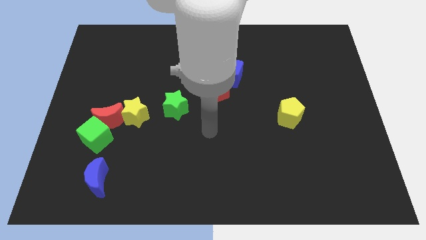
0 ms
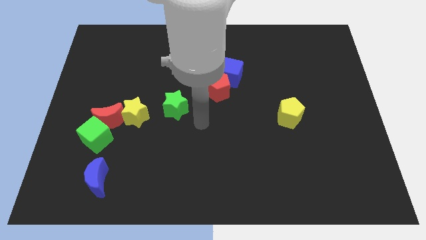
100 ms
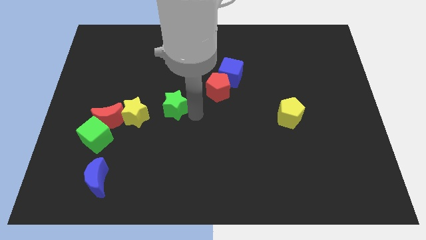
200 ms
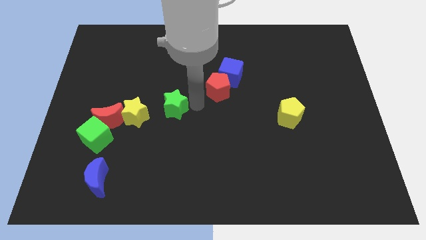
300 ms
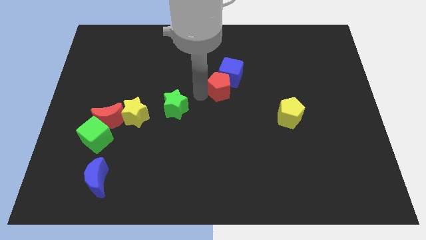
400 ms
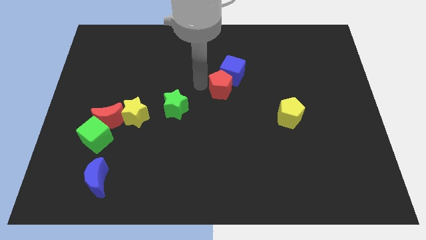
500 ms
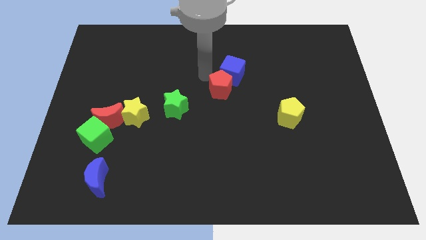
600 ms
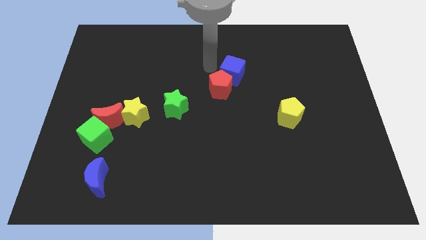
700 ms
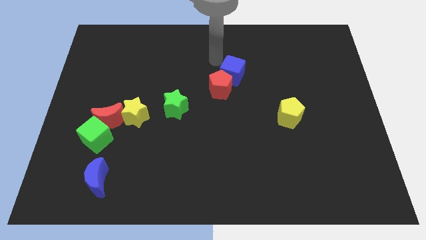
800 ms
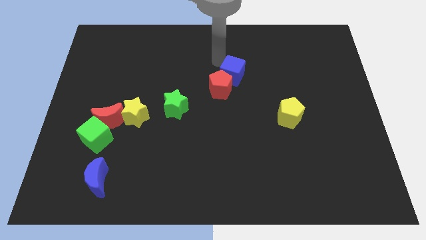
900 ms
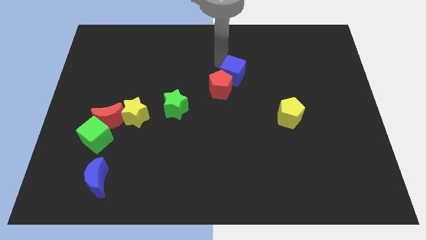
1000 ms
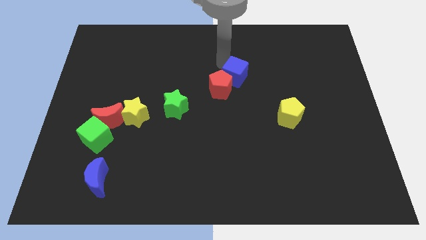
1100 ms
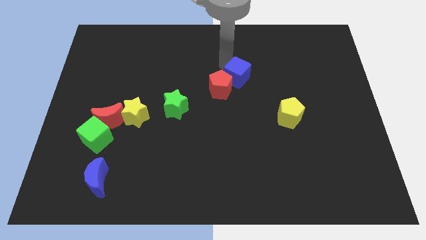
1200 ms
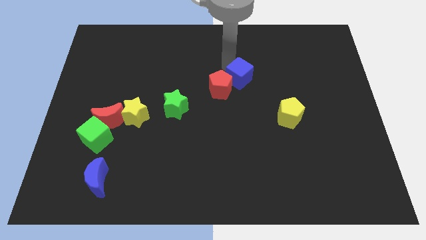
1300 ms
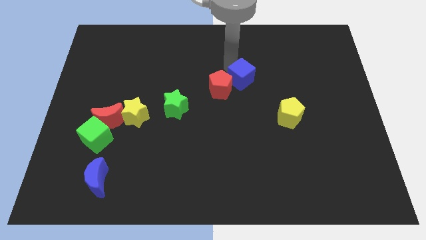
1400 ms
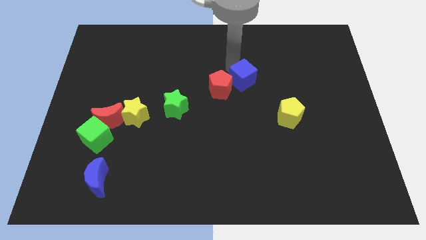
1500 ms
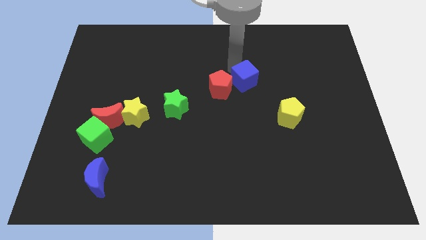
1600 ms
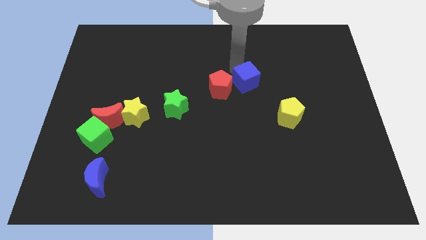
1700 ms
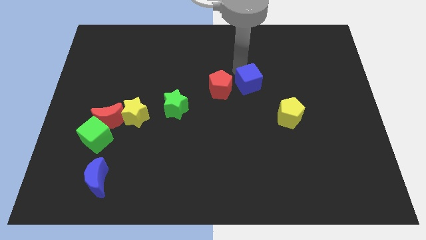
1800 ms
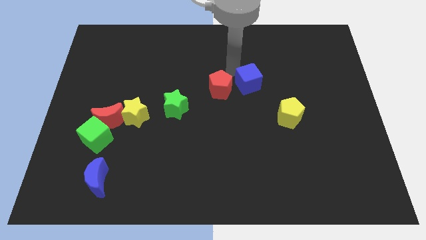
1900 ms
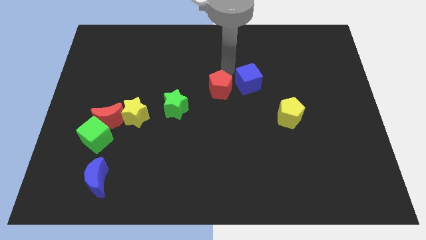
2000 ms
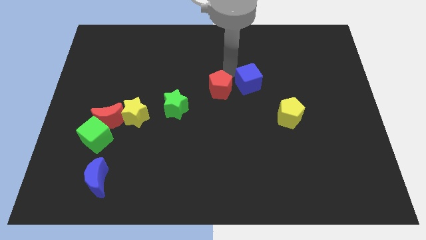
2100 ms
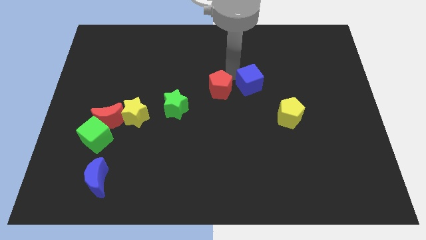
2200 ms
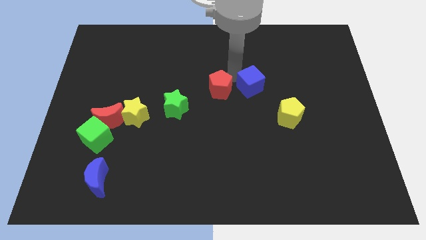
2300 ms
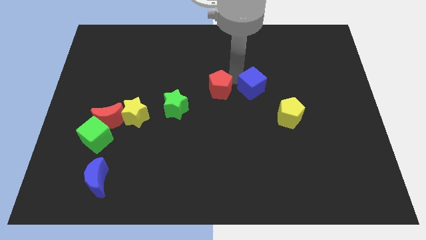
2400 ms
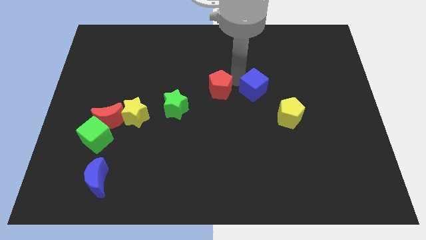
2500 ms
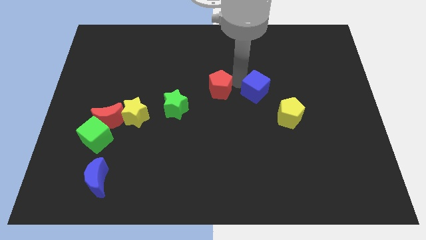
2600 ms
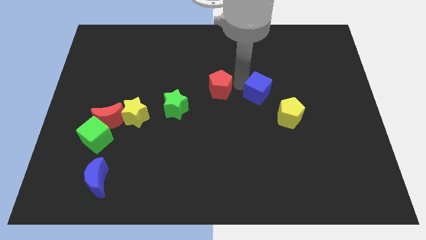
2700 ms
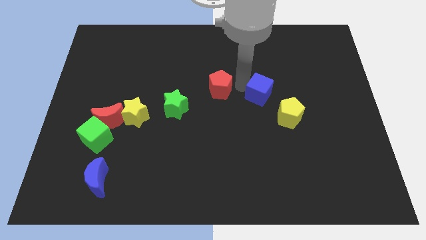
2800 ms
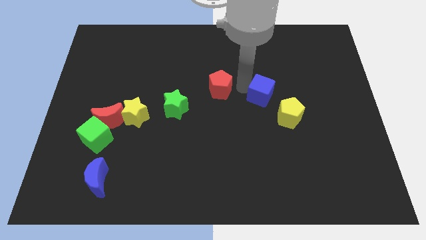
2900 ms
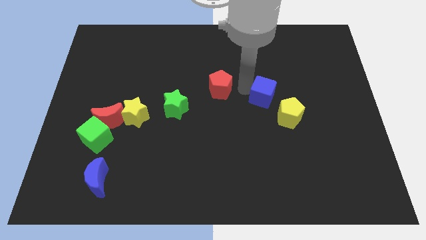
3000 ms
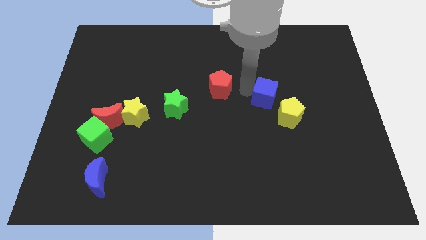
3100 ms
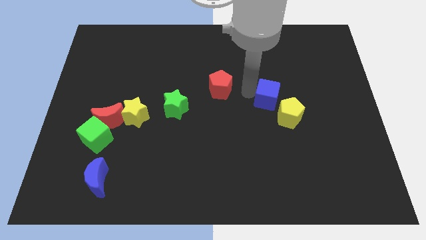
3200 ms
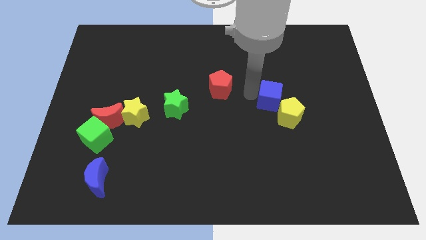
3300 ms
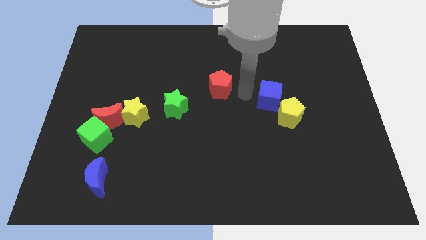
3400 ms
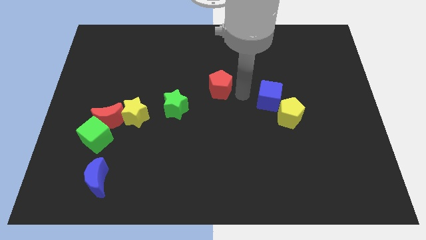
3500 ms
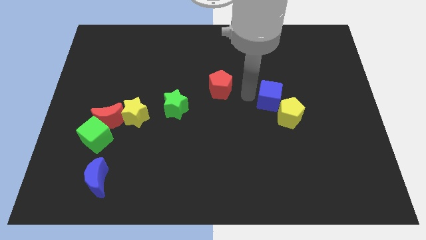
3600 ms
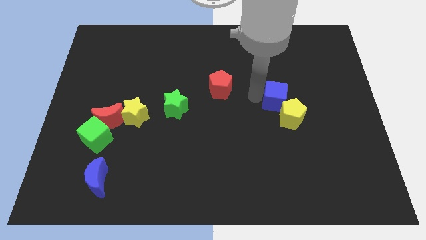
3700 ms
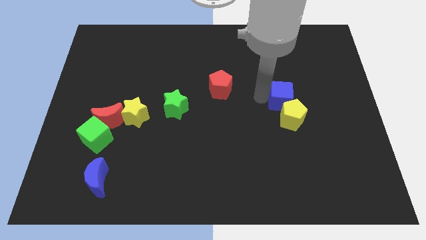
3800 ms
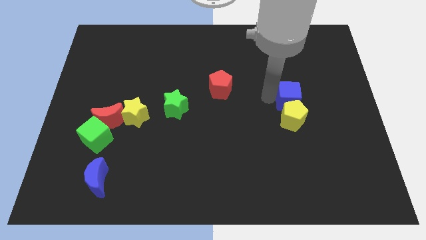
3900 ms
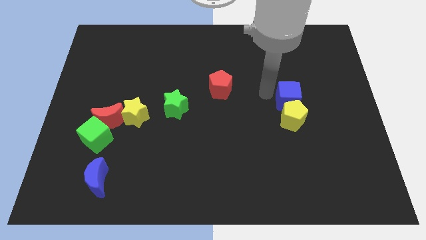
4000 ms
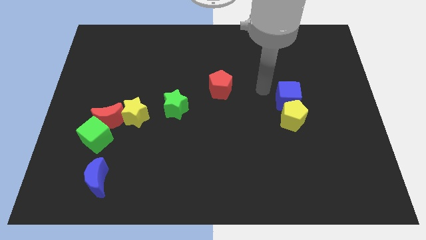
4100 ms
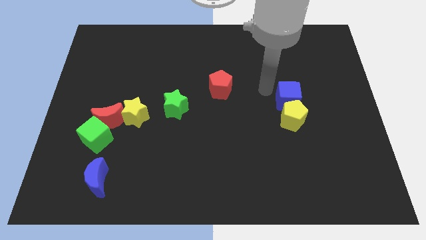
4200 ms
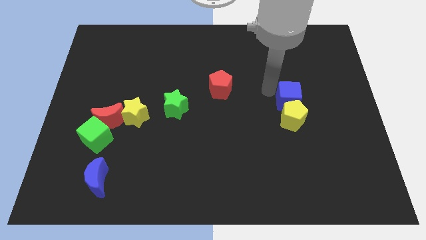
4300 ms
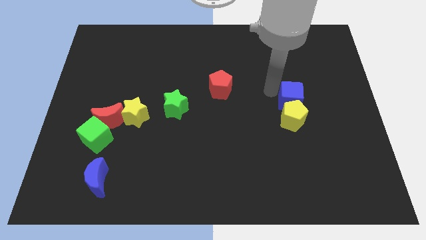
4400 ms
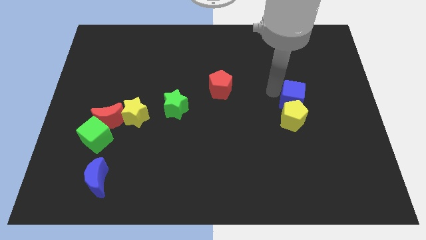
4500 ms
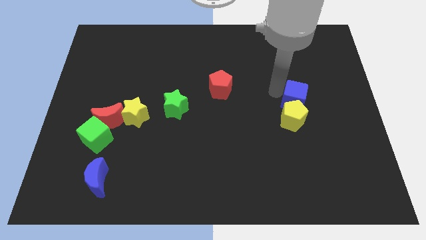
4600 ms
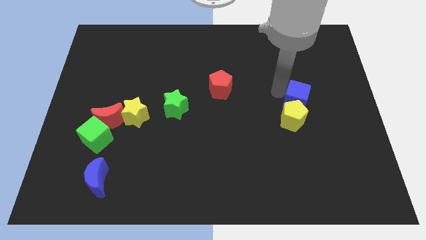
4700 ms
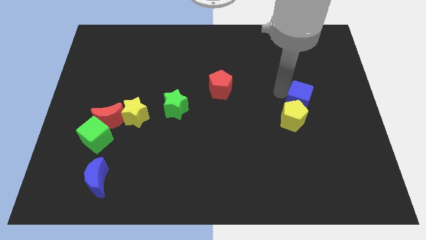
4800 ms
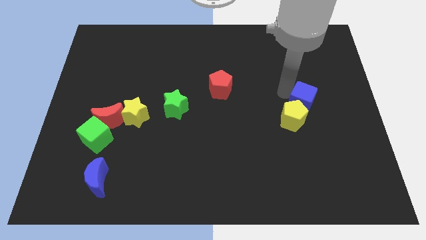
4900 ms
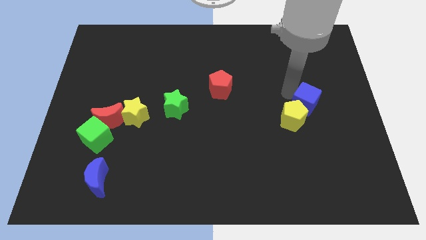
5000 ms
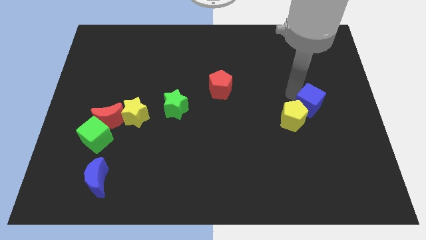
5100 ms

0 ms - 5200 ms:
push the blue cube right of the yellow pentagon

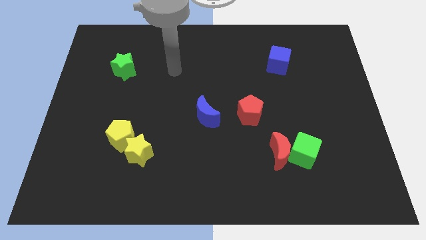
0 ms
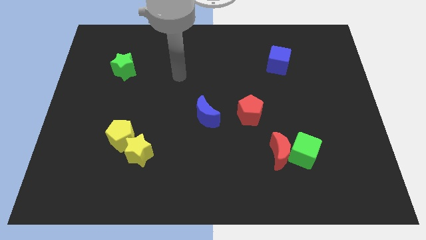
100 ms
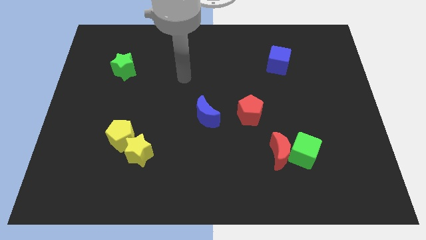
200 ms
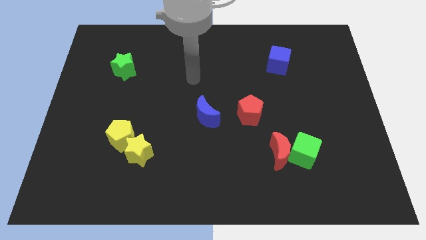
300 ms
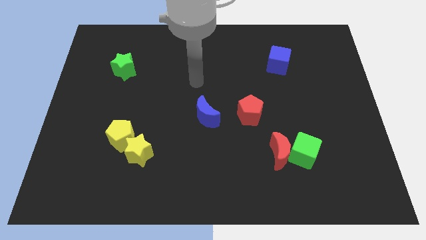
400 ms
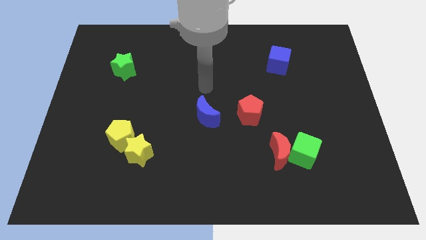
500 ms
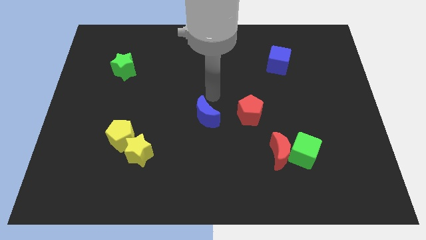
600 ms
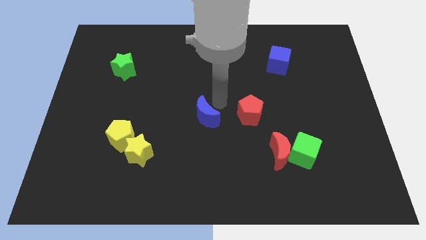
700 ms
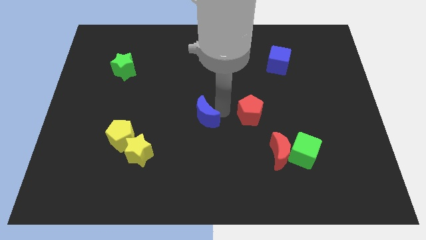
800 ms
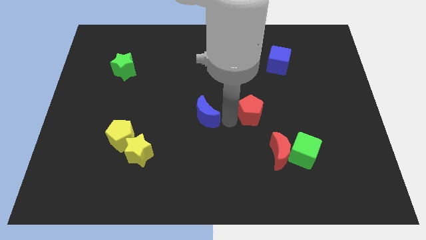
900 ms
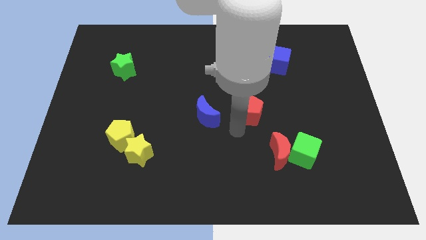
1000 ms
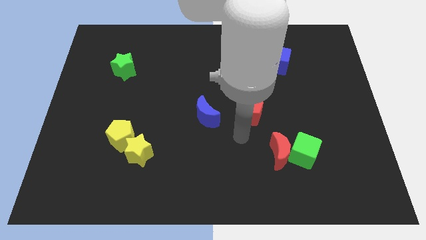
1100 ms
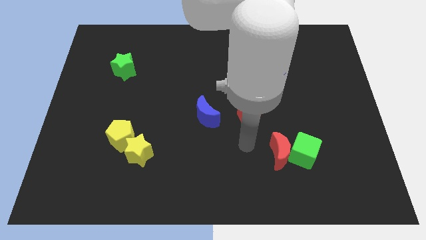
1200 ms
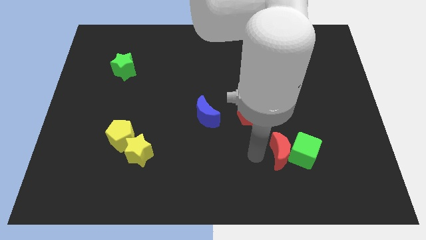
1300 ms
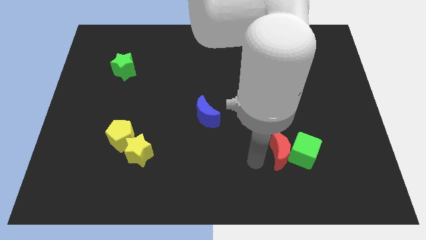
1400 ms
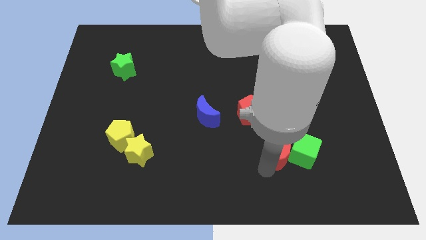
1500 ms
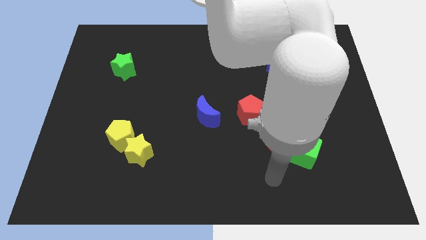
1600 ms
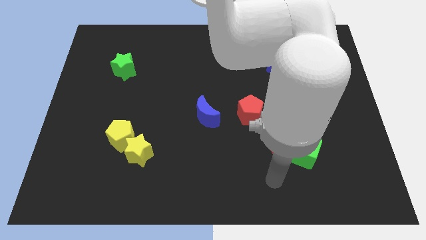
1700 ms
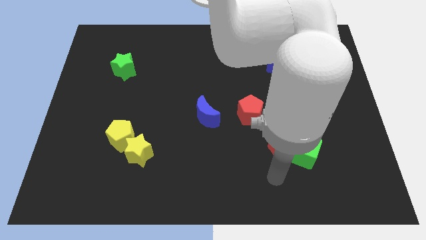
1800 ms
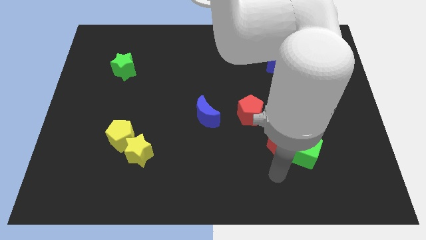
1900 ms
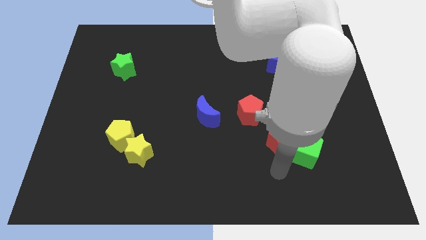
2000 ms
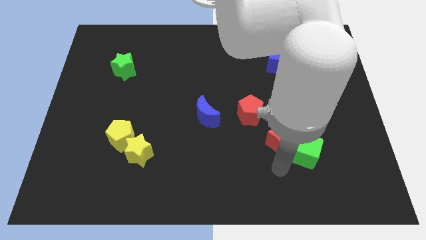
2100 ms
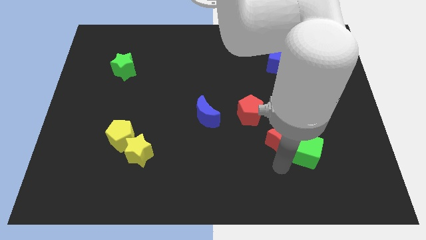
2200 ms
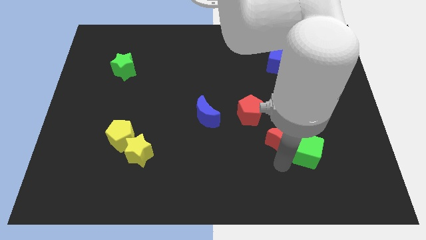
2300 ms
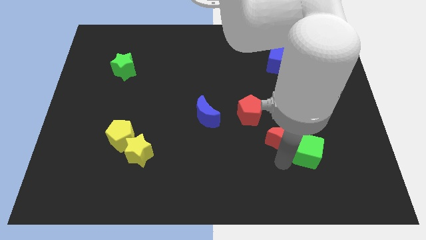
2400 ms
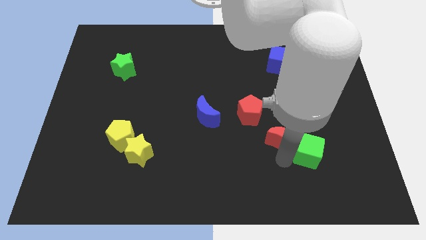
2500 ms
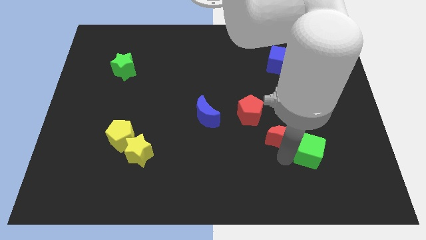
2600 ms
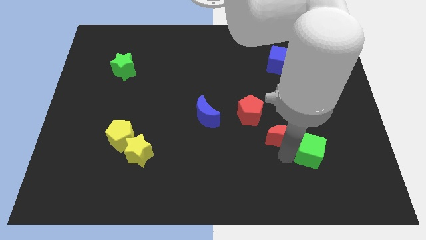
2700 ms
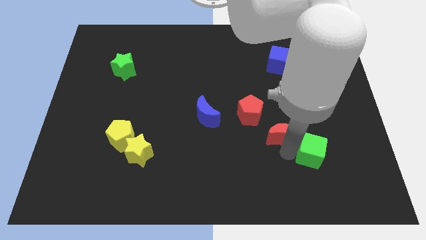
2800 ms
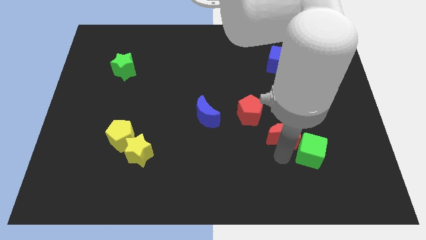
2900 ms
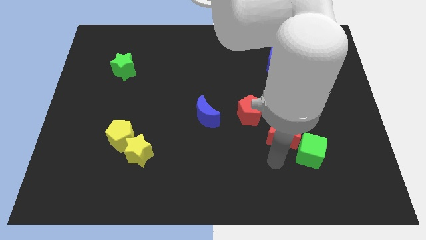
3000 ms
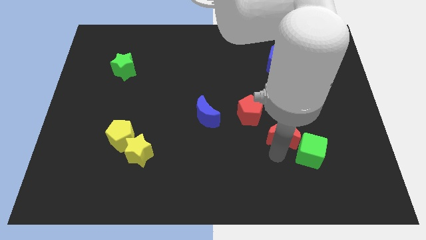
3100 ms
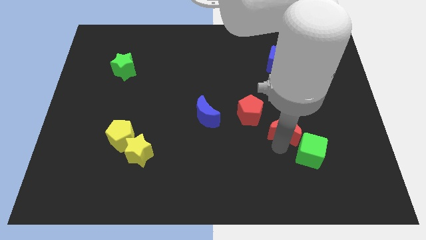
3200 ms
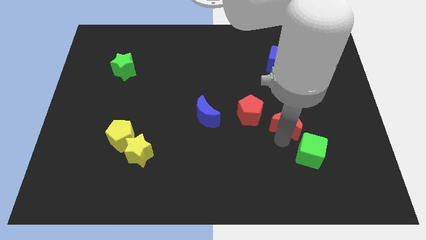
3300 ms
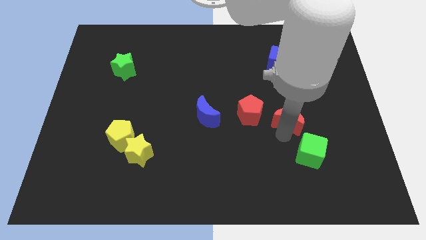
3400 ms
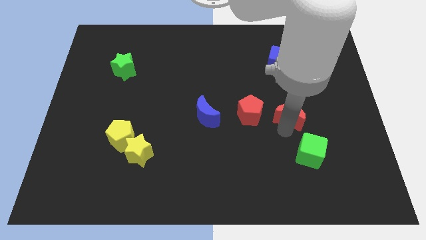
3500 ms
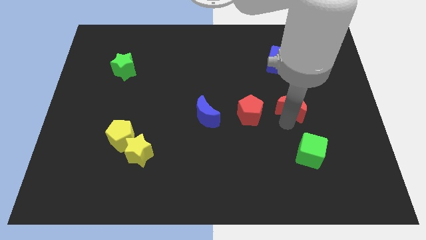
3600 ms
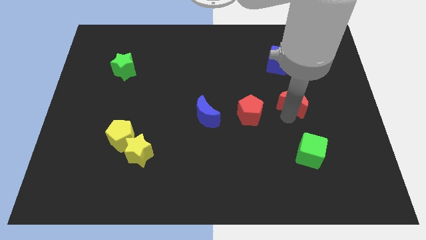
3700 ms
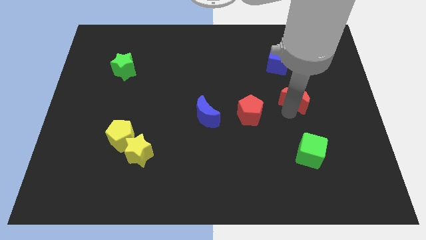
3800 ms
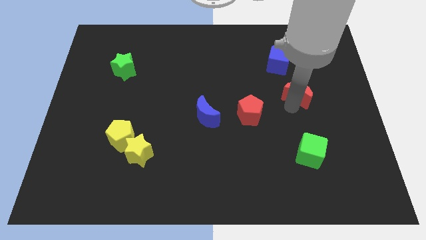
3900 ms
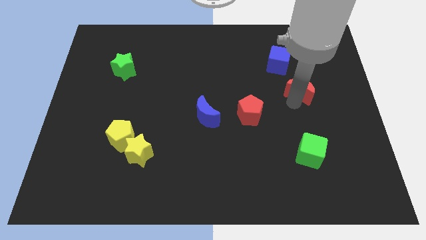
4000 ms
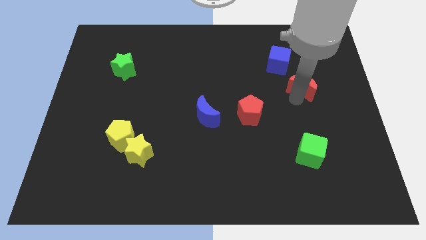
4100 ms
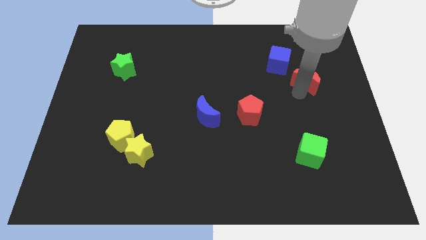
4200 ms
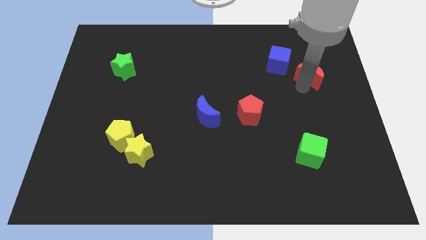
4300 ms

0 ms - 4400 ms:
slide the red moon just right of the blue cube
